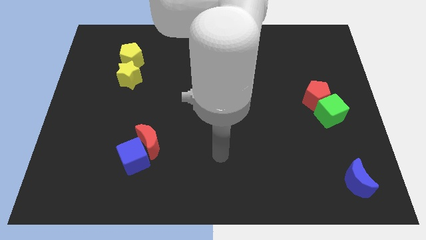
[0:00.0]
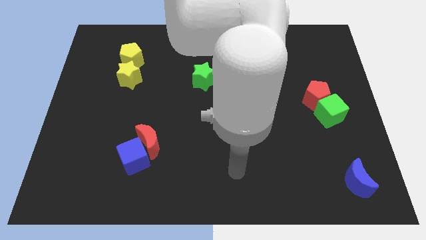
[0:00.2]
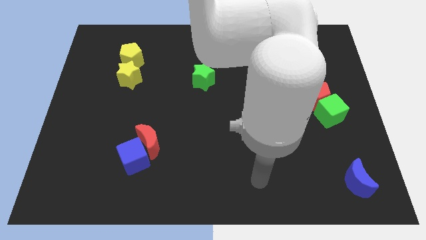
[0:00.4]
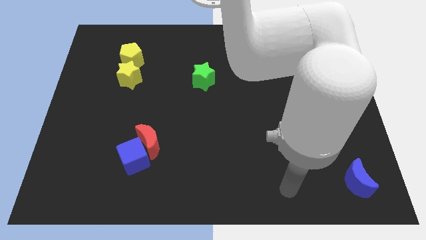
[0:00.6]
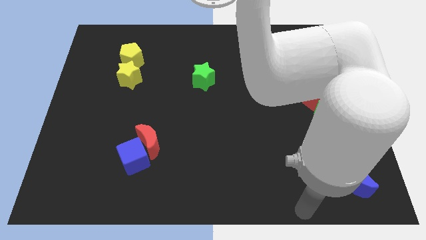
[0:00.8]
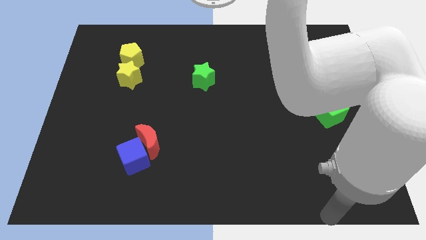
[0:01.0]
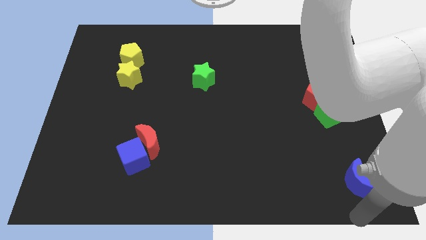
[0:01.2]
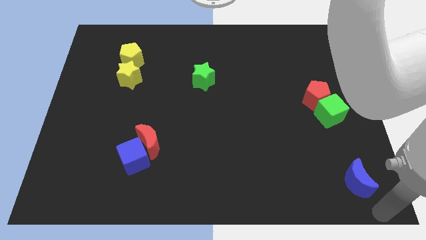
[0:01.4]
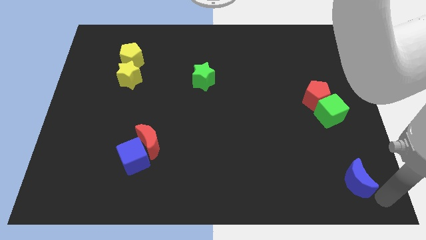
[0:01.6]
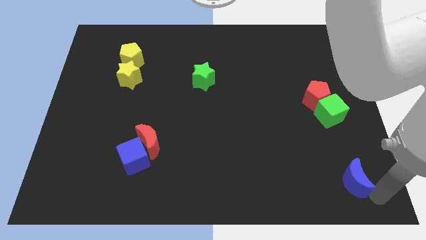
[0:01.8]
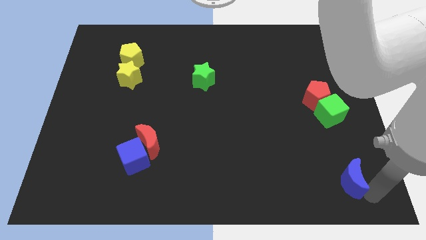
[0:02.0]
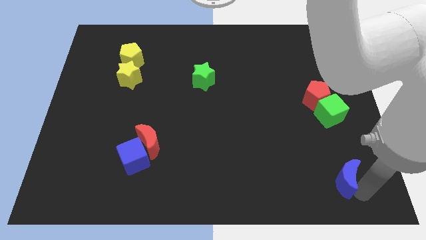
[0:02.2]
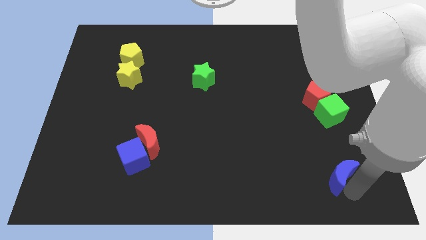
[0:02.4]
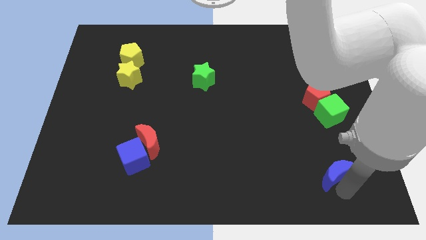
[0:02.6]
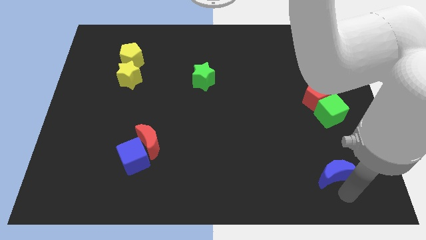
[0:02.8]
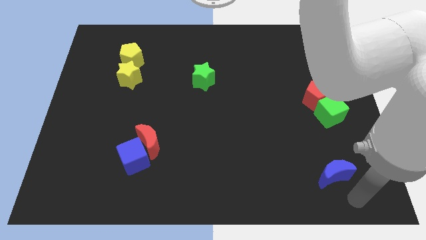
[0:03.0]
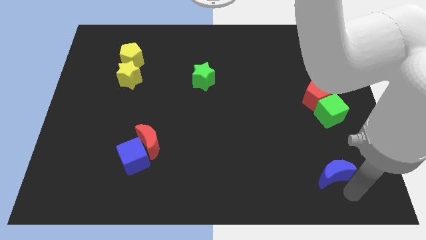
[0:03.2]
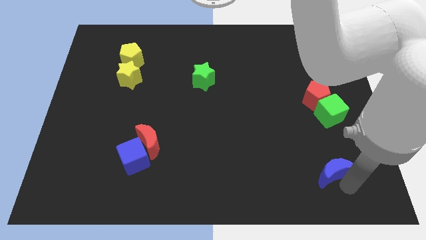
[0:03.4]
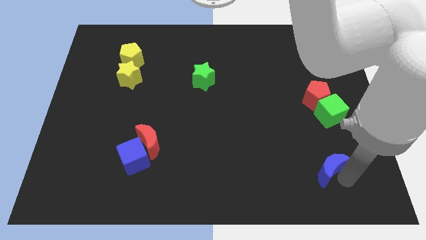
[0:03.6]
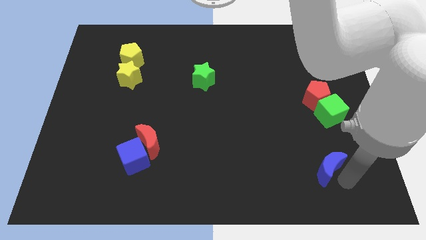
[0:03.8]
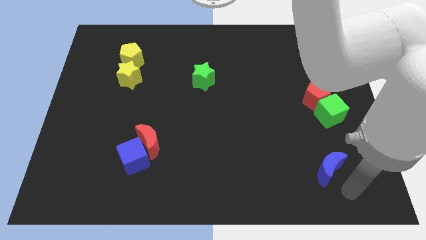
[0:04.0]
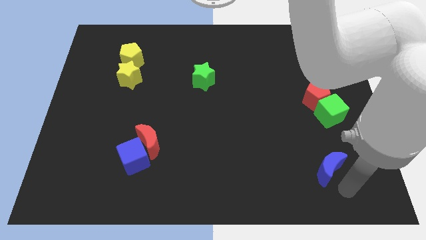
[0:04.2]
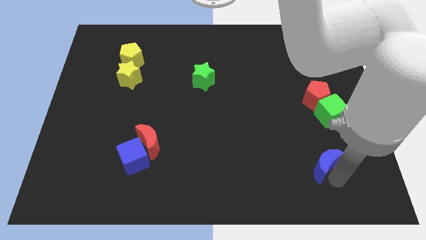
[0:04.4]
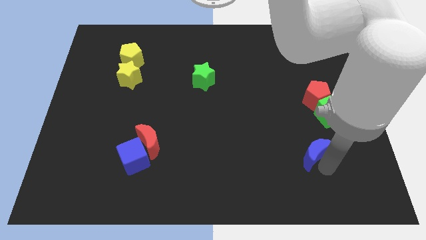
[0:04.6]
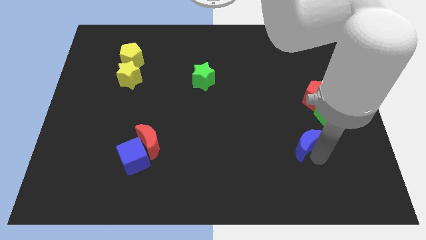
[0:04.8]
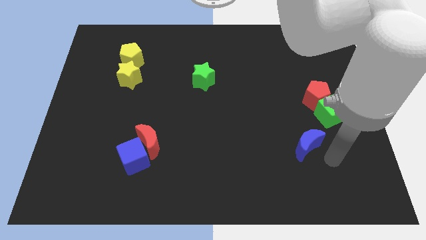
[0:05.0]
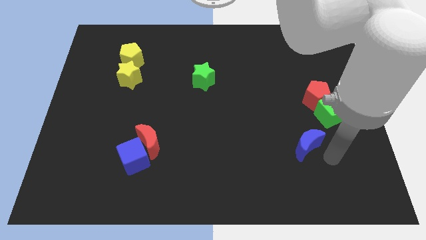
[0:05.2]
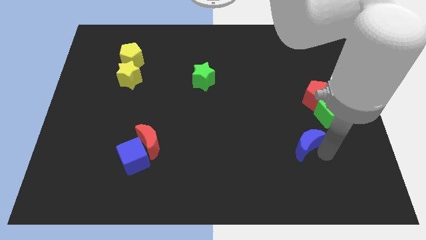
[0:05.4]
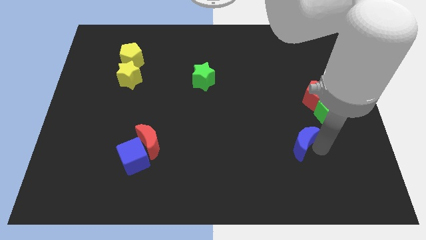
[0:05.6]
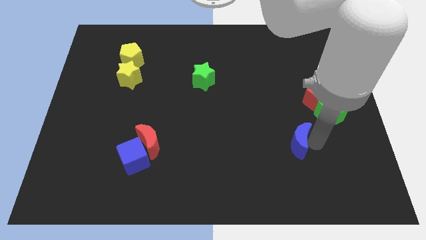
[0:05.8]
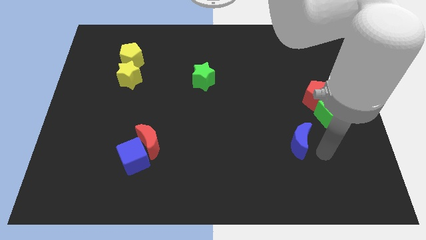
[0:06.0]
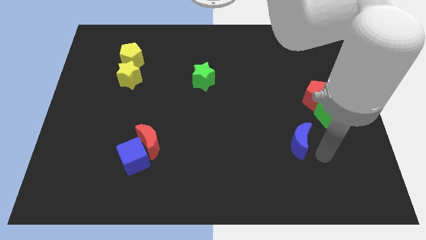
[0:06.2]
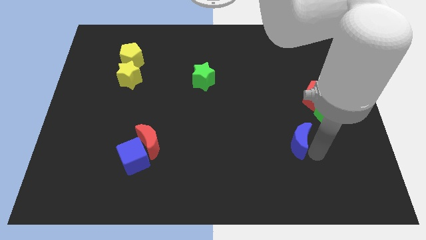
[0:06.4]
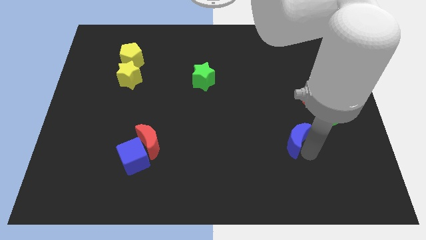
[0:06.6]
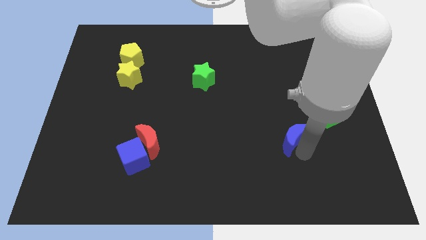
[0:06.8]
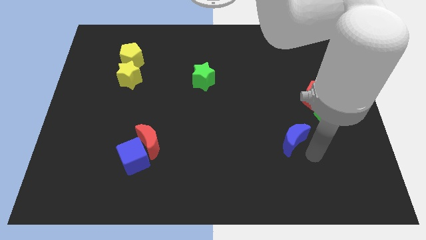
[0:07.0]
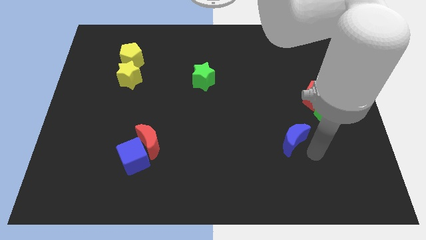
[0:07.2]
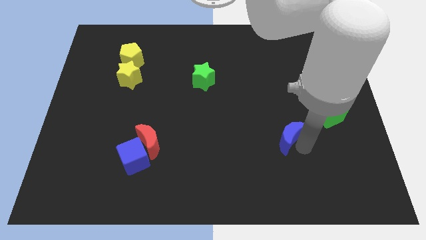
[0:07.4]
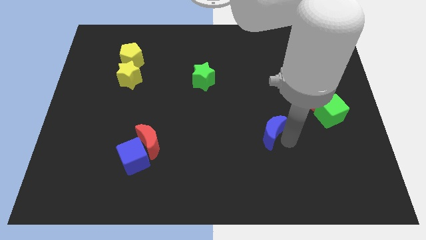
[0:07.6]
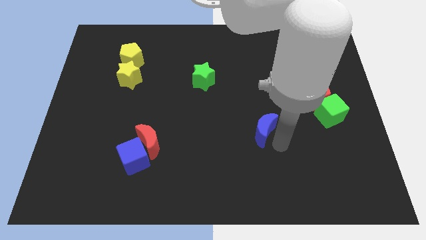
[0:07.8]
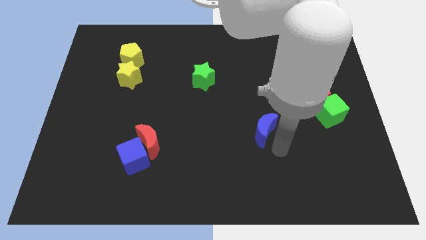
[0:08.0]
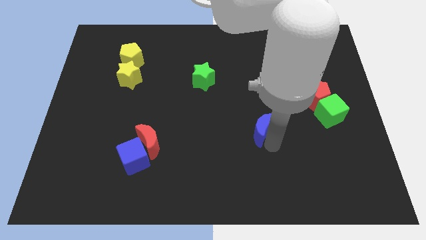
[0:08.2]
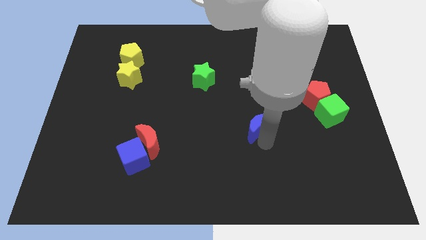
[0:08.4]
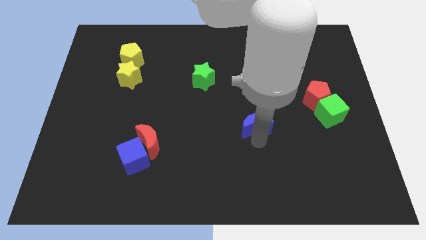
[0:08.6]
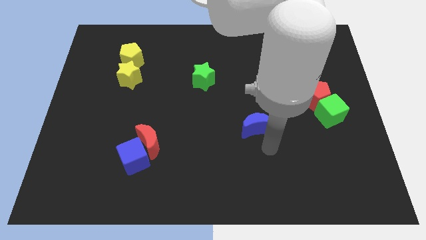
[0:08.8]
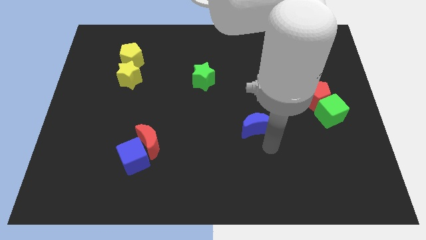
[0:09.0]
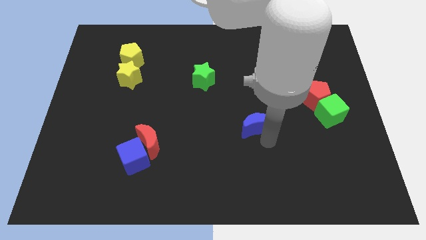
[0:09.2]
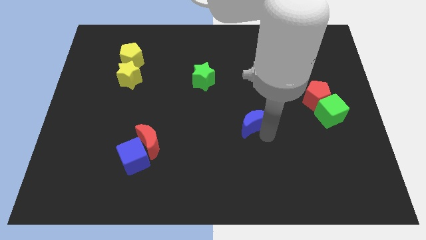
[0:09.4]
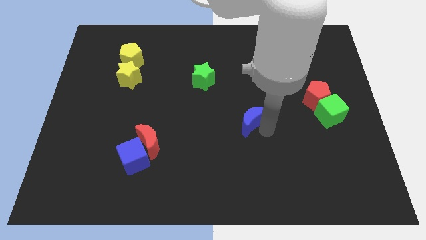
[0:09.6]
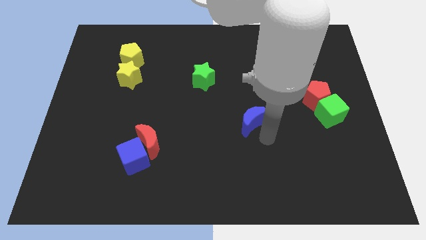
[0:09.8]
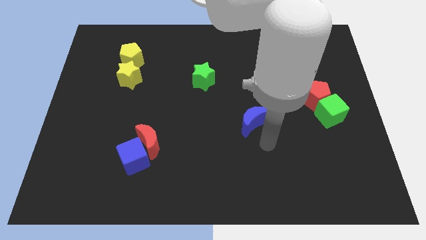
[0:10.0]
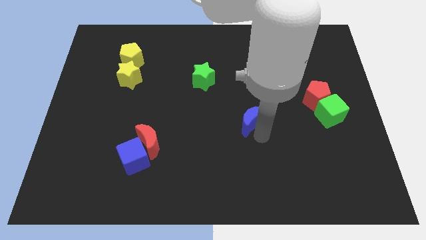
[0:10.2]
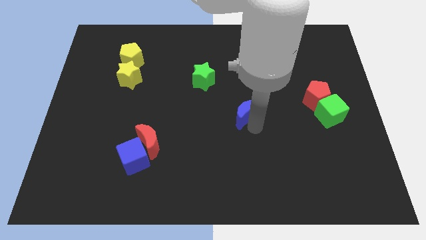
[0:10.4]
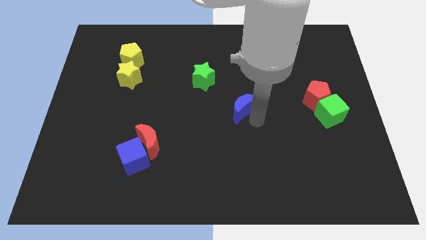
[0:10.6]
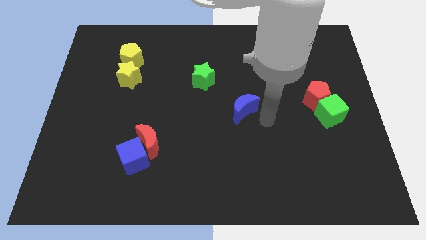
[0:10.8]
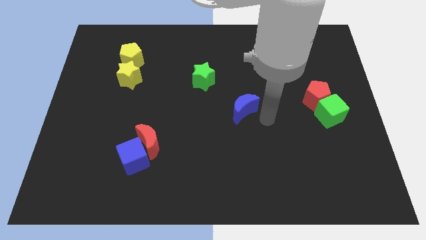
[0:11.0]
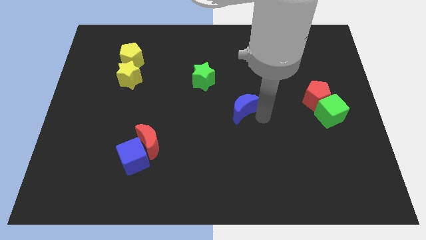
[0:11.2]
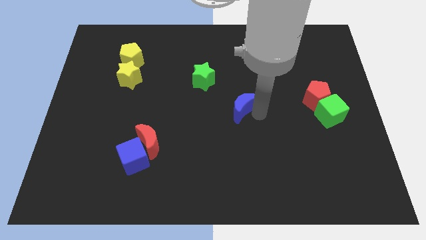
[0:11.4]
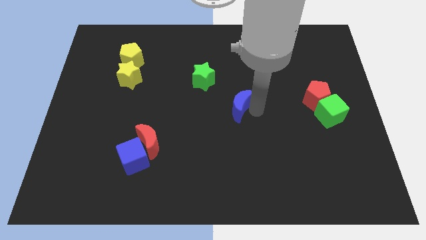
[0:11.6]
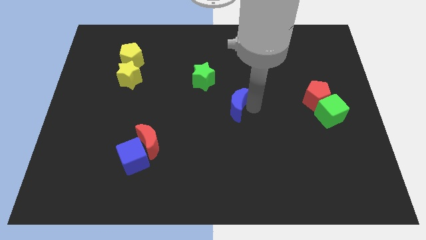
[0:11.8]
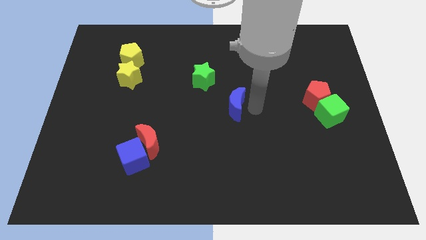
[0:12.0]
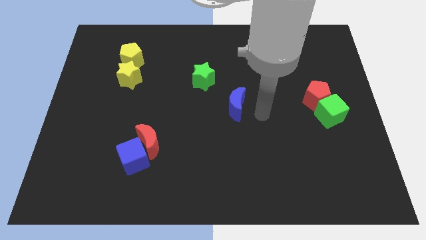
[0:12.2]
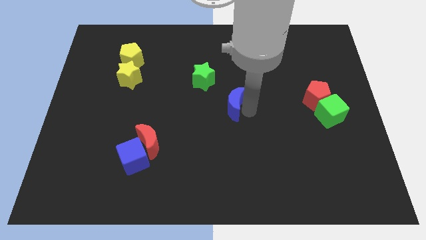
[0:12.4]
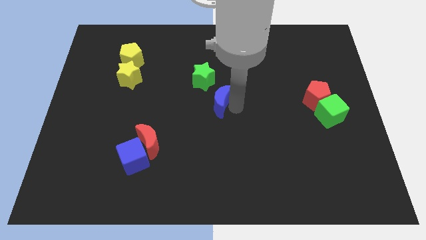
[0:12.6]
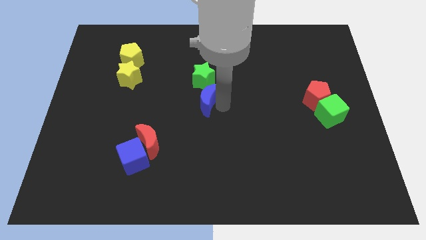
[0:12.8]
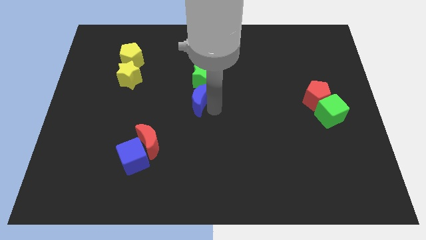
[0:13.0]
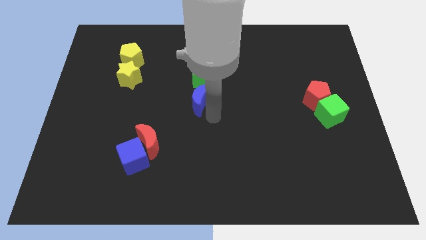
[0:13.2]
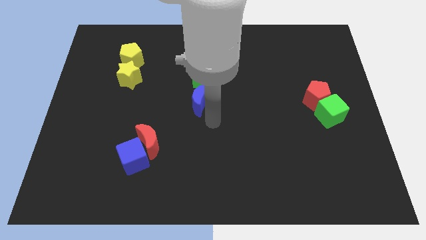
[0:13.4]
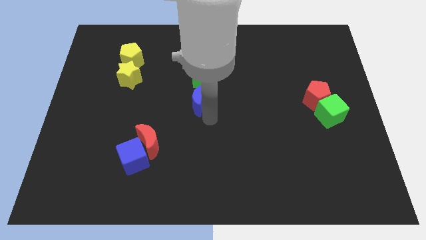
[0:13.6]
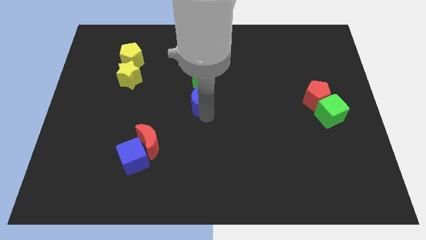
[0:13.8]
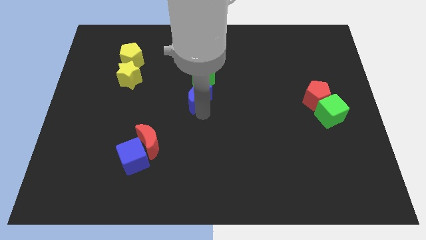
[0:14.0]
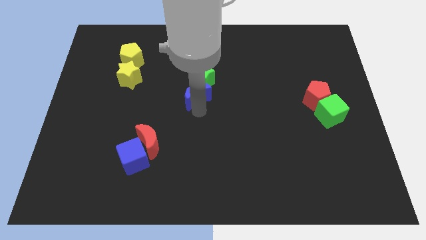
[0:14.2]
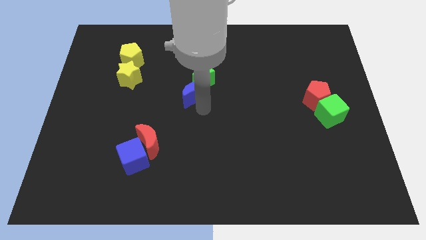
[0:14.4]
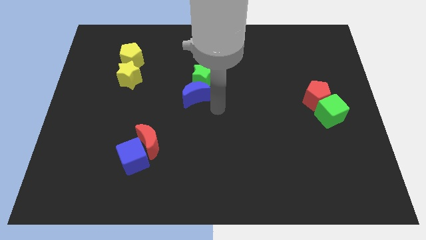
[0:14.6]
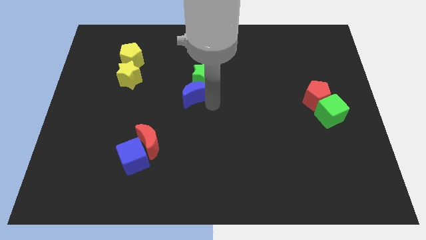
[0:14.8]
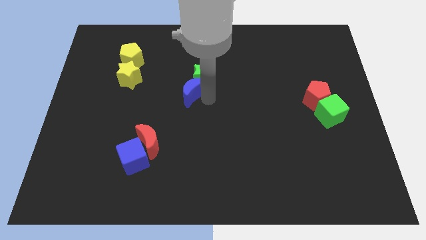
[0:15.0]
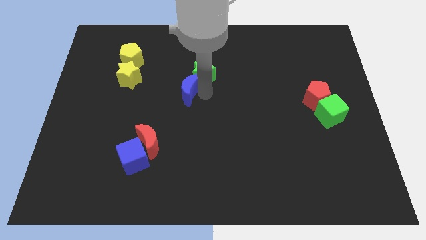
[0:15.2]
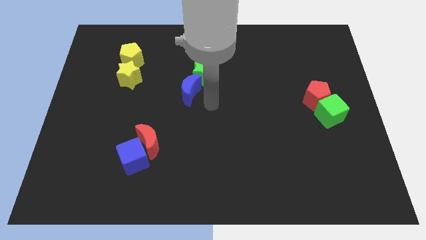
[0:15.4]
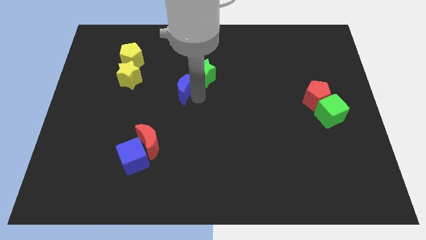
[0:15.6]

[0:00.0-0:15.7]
push the blue moon to the left side of the green star
